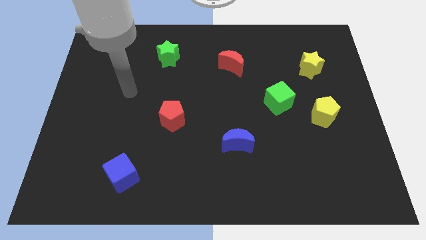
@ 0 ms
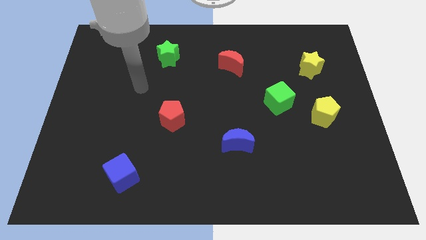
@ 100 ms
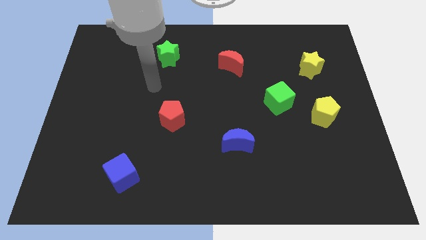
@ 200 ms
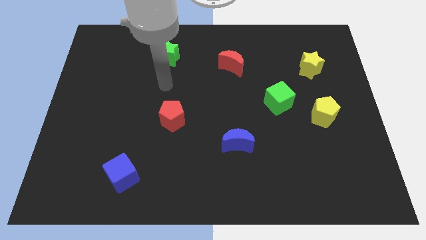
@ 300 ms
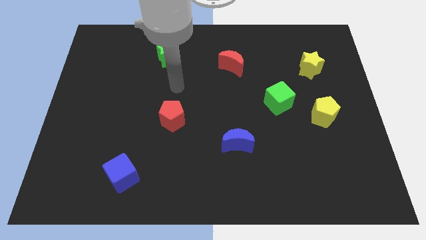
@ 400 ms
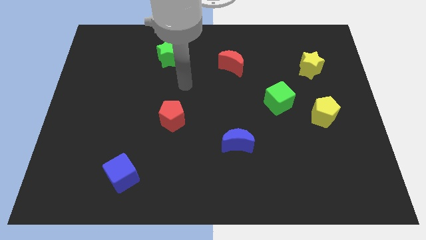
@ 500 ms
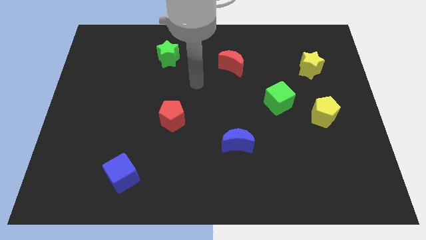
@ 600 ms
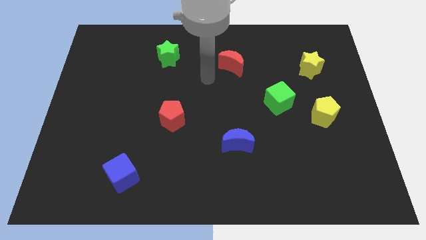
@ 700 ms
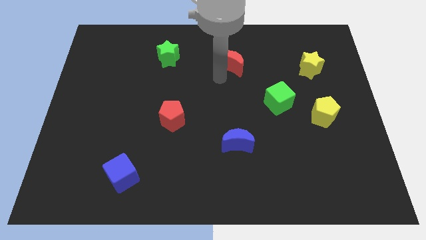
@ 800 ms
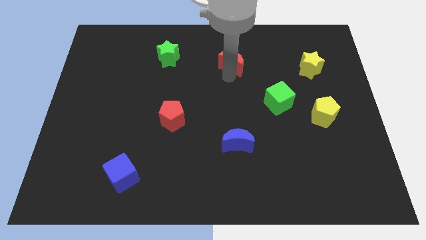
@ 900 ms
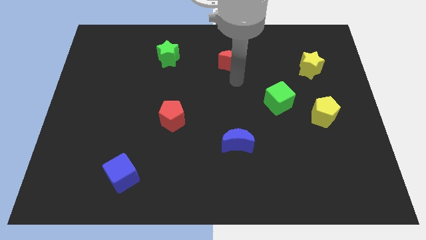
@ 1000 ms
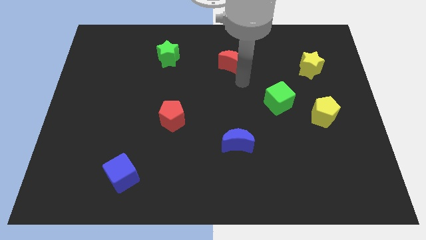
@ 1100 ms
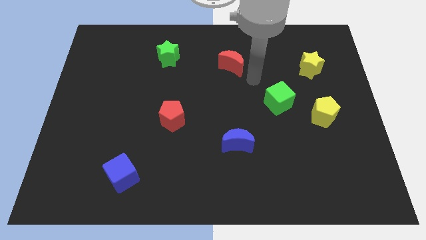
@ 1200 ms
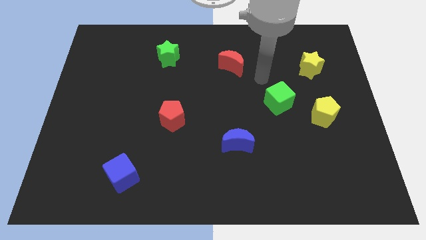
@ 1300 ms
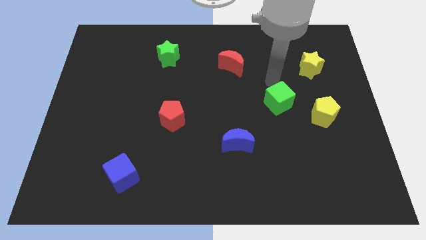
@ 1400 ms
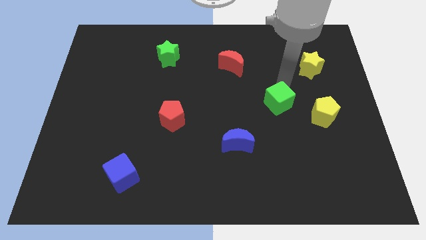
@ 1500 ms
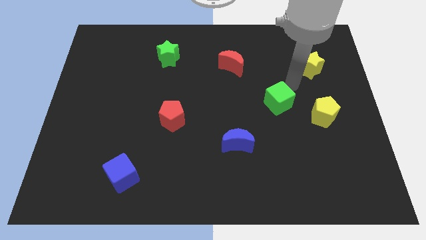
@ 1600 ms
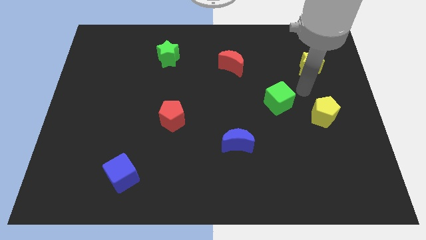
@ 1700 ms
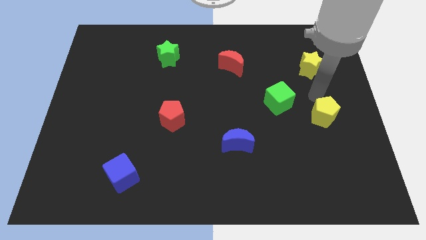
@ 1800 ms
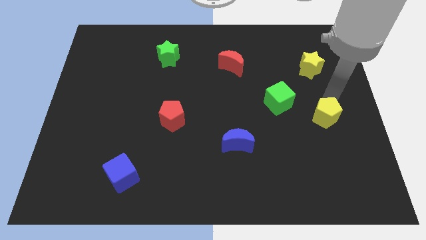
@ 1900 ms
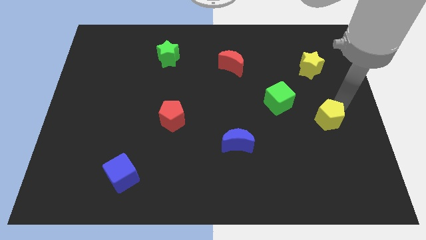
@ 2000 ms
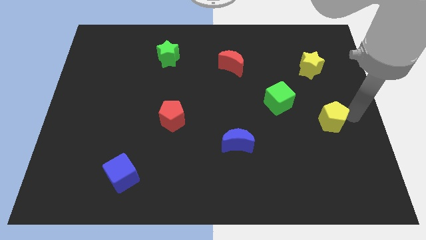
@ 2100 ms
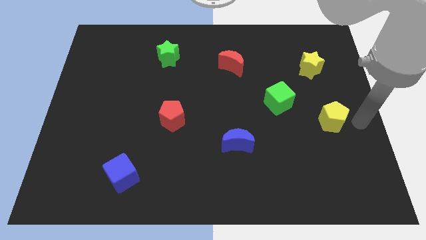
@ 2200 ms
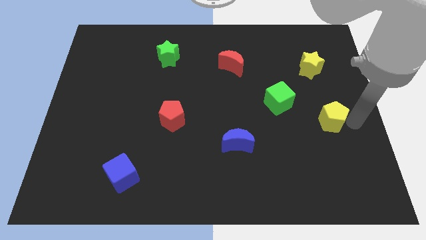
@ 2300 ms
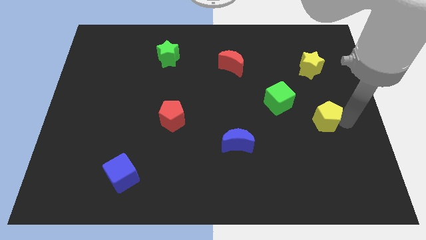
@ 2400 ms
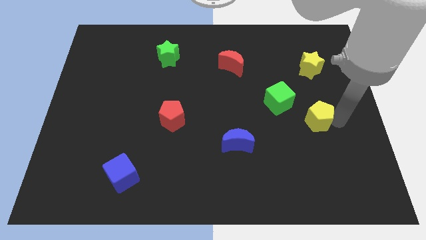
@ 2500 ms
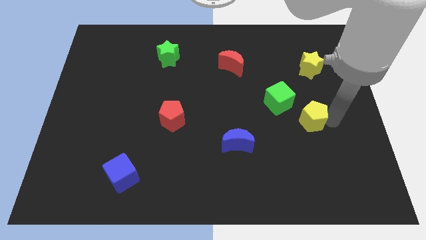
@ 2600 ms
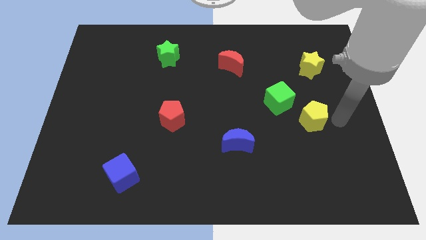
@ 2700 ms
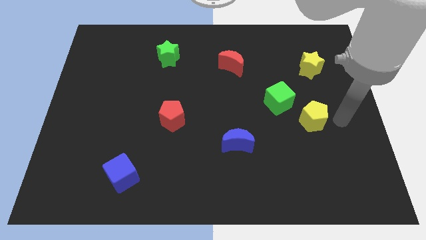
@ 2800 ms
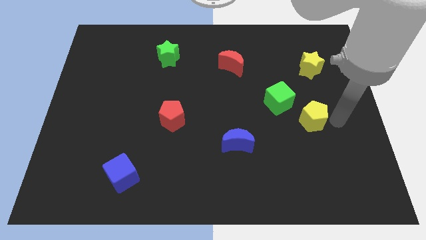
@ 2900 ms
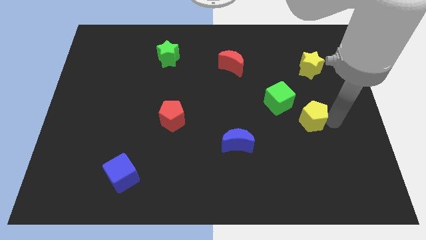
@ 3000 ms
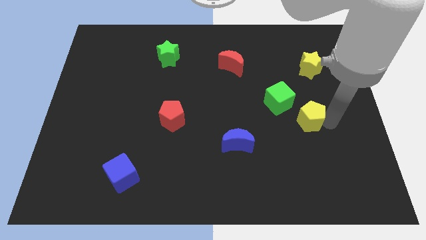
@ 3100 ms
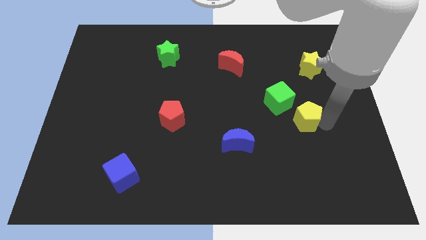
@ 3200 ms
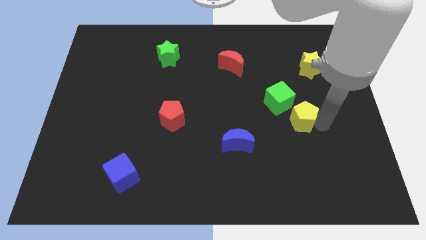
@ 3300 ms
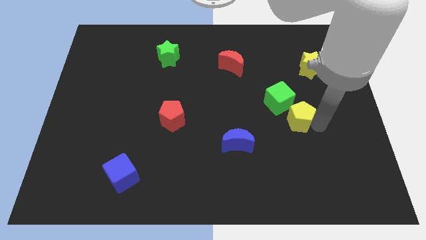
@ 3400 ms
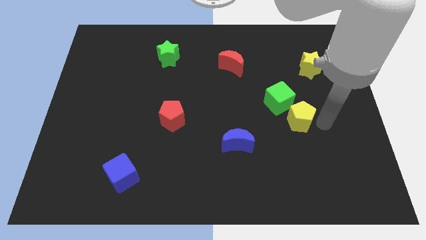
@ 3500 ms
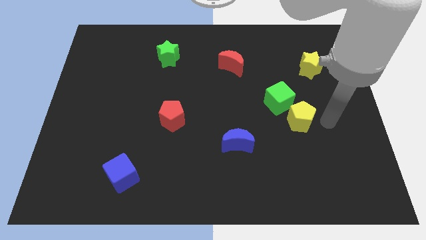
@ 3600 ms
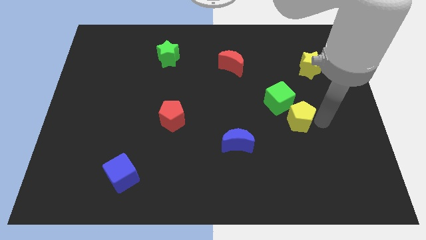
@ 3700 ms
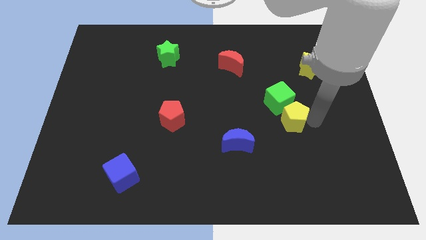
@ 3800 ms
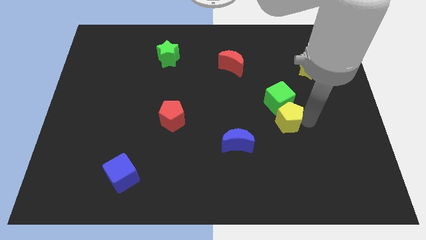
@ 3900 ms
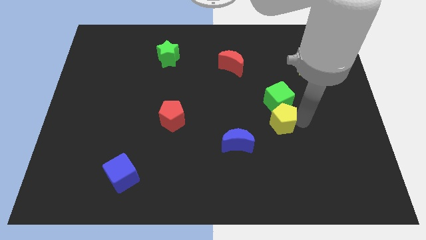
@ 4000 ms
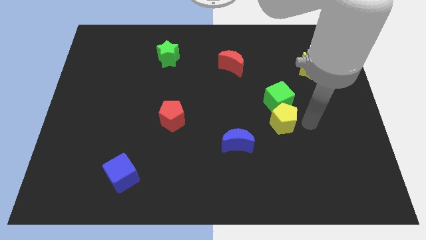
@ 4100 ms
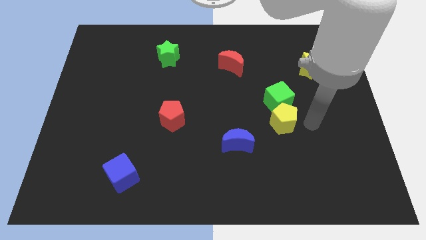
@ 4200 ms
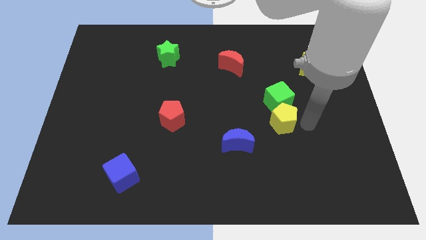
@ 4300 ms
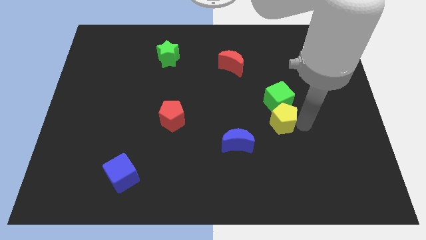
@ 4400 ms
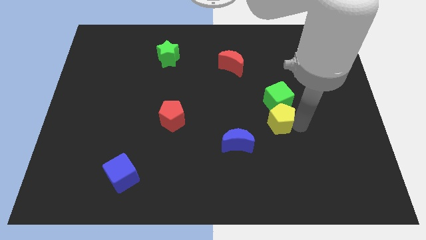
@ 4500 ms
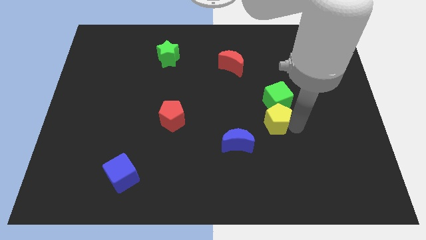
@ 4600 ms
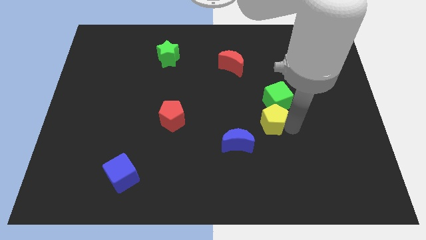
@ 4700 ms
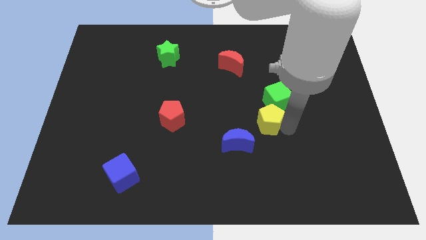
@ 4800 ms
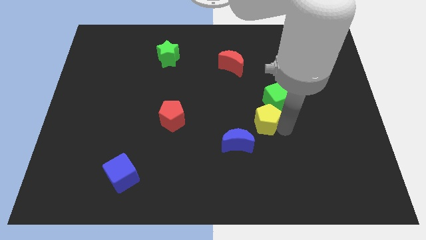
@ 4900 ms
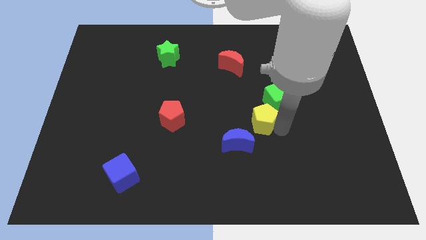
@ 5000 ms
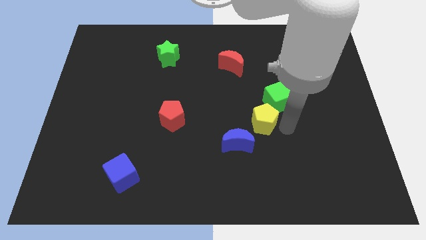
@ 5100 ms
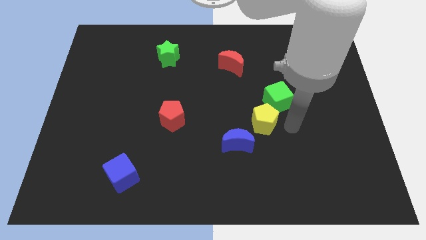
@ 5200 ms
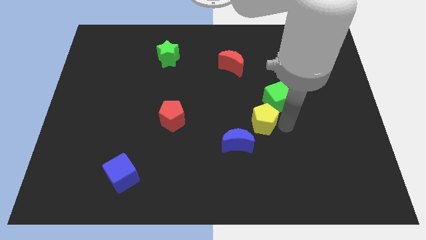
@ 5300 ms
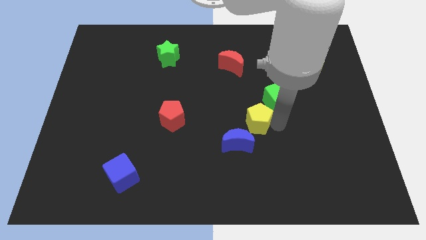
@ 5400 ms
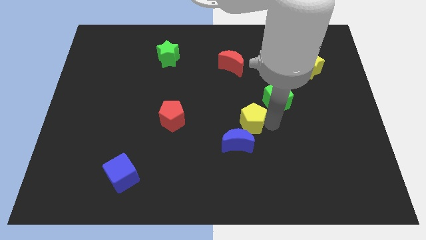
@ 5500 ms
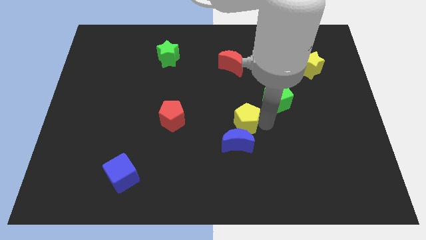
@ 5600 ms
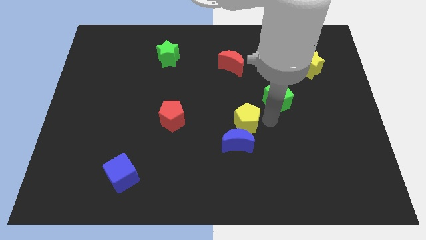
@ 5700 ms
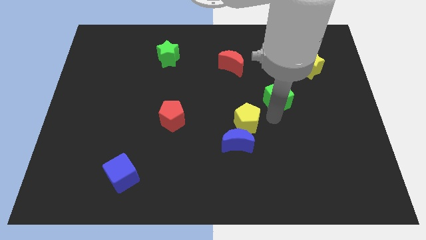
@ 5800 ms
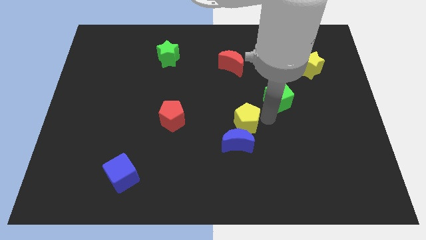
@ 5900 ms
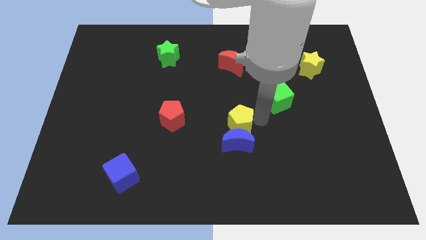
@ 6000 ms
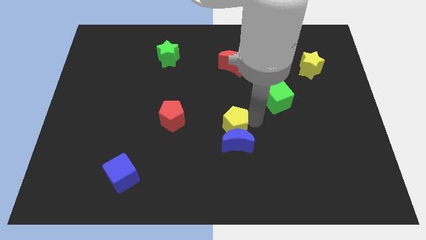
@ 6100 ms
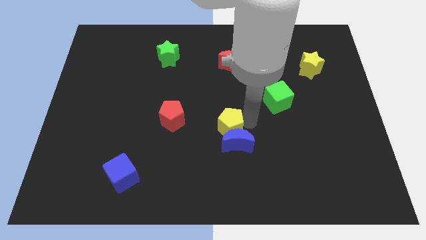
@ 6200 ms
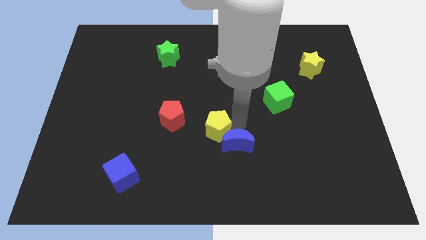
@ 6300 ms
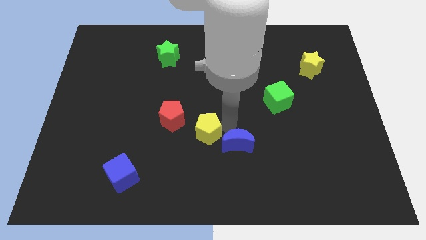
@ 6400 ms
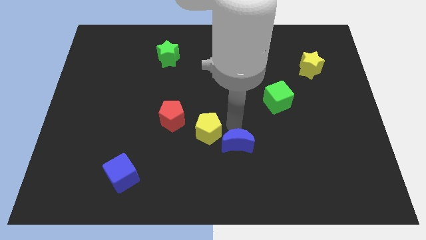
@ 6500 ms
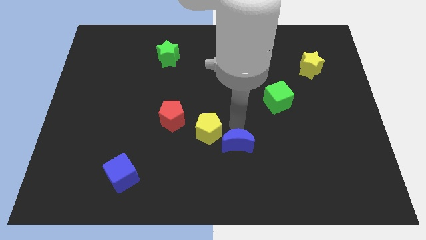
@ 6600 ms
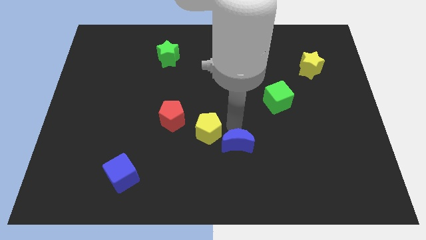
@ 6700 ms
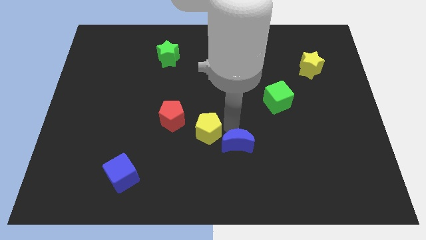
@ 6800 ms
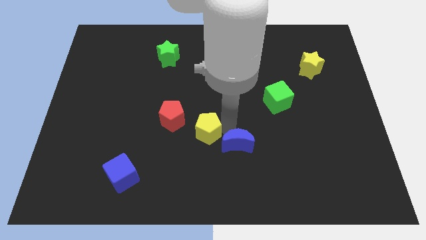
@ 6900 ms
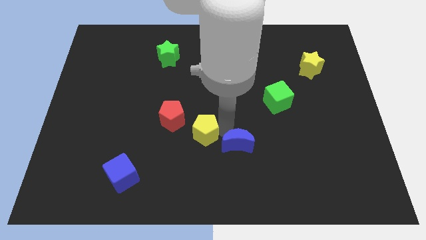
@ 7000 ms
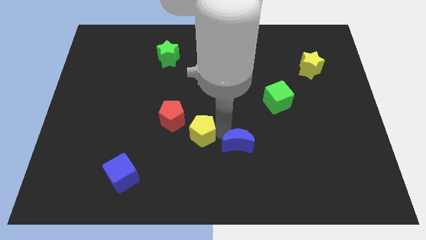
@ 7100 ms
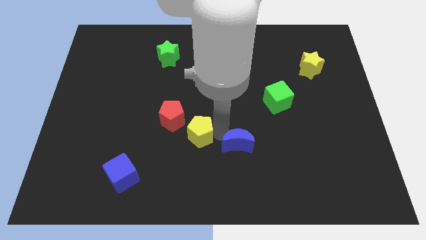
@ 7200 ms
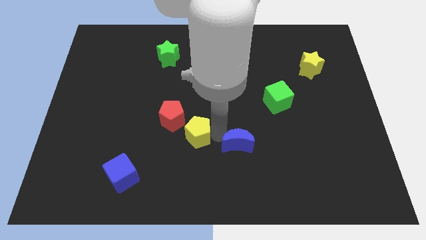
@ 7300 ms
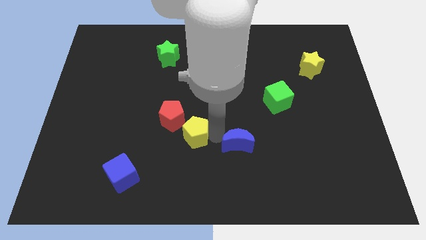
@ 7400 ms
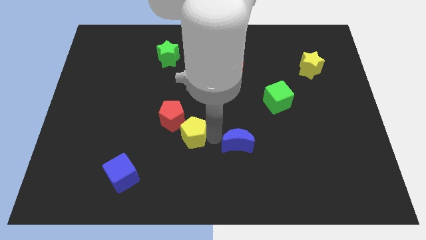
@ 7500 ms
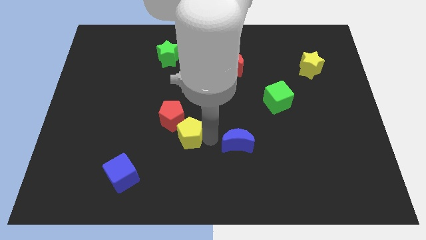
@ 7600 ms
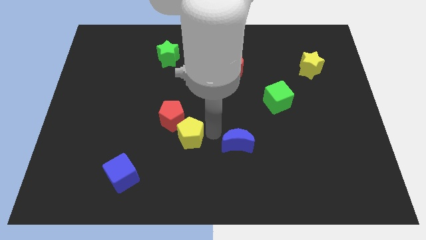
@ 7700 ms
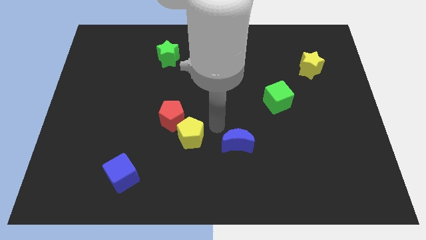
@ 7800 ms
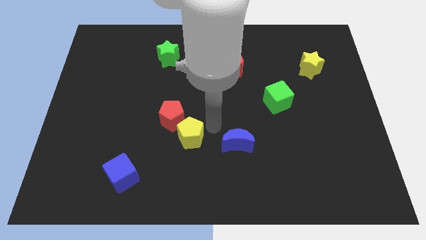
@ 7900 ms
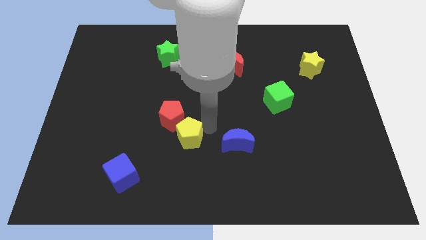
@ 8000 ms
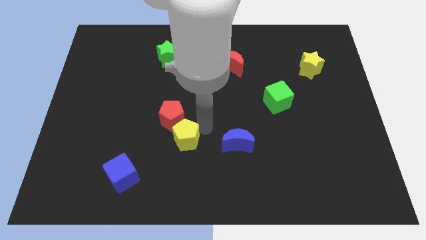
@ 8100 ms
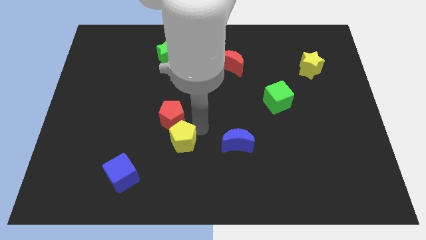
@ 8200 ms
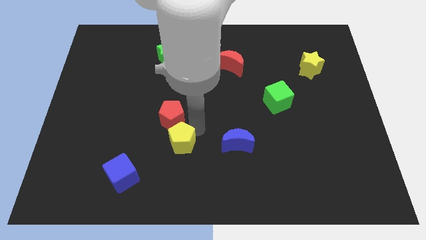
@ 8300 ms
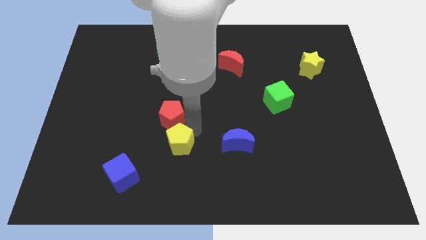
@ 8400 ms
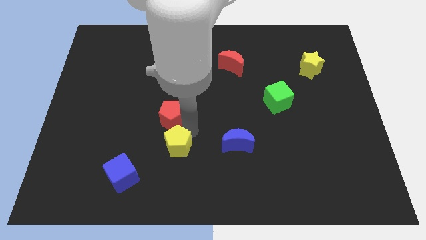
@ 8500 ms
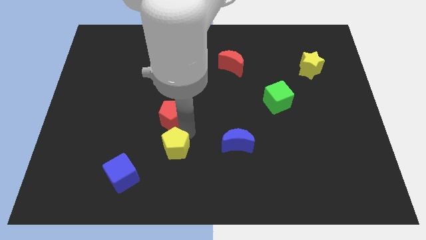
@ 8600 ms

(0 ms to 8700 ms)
put the yellow pentagon diagonally up and to the right of the blue cube
